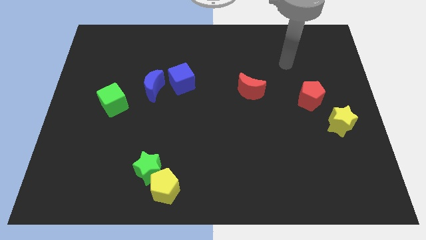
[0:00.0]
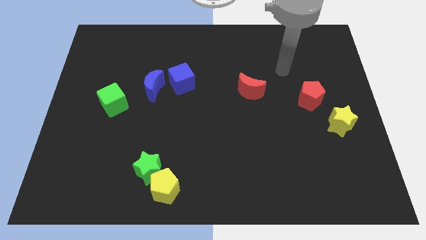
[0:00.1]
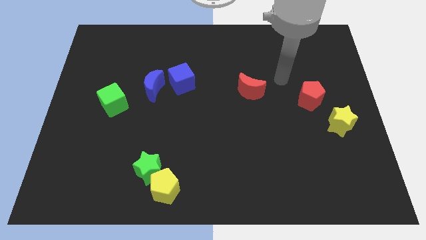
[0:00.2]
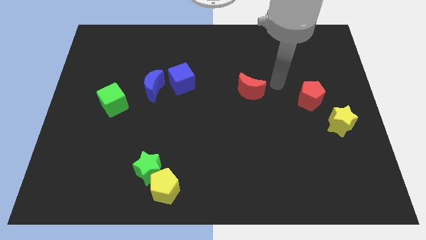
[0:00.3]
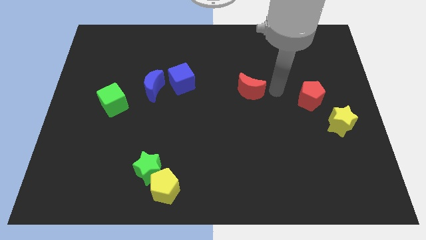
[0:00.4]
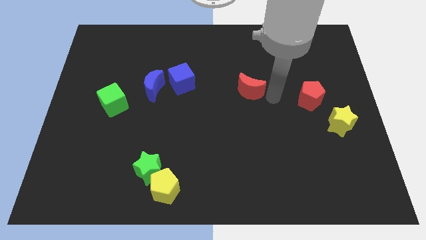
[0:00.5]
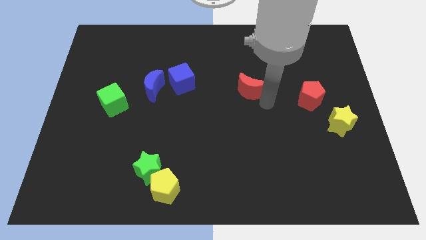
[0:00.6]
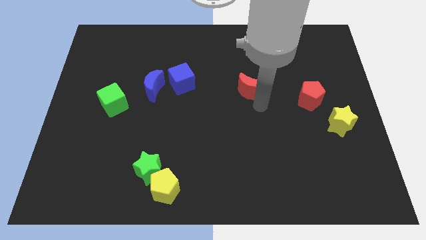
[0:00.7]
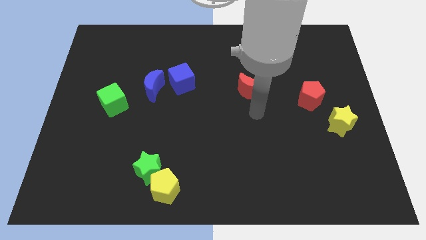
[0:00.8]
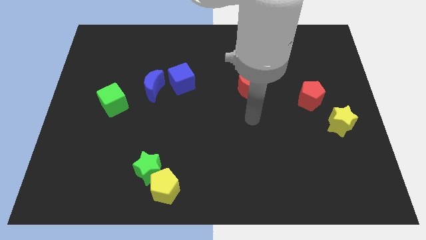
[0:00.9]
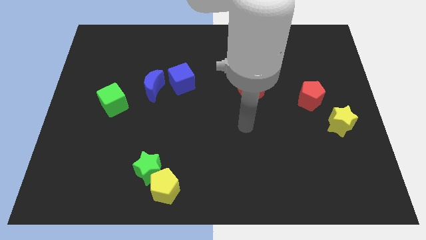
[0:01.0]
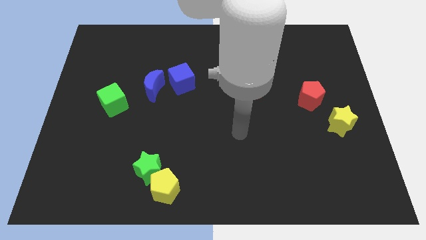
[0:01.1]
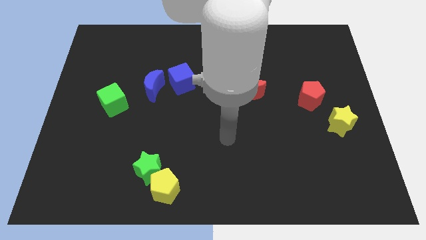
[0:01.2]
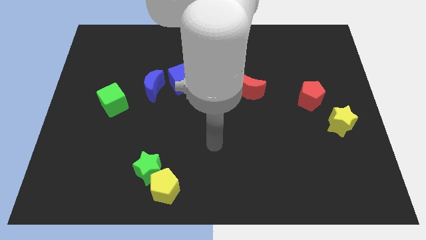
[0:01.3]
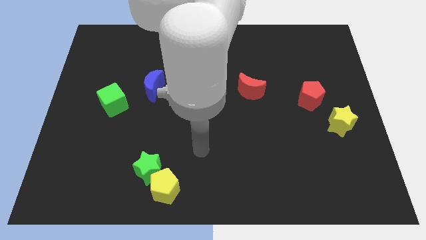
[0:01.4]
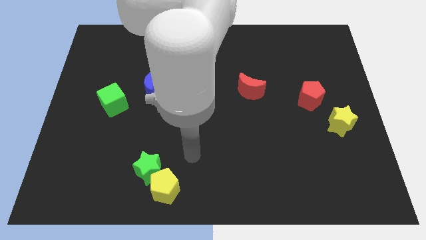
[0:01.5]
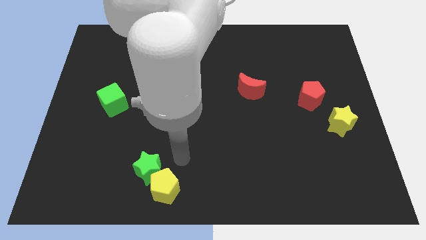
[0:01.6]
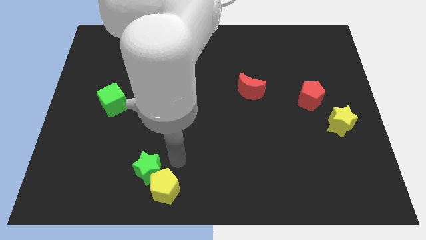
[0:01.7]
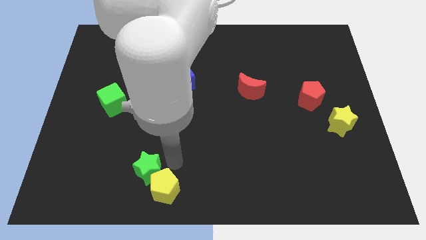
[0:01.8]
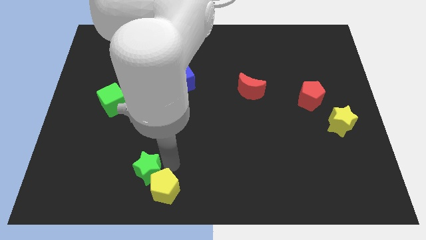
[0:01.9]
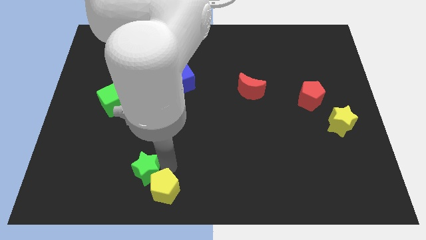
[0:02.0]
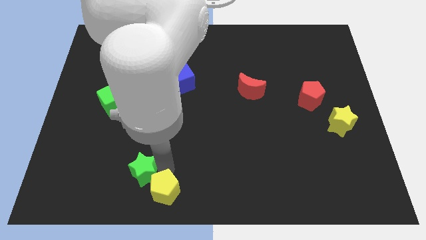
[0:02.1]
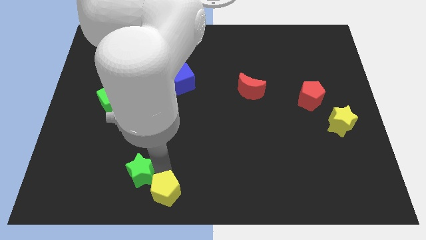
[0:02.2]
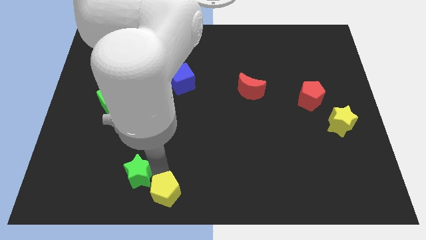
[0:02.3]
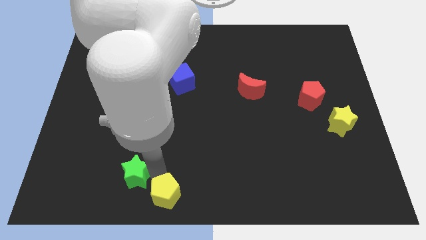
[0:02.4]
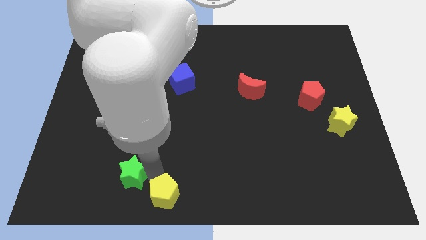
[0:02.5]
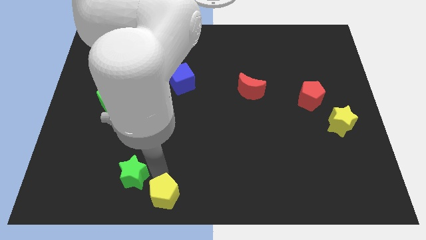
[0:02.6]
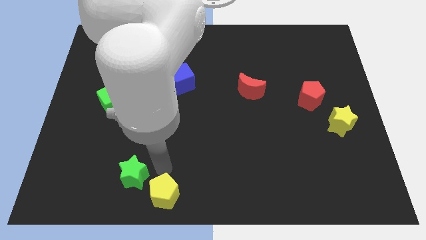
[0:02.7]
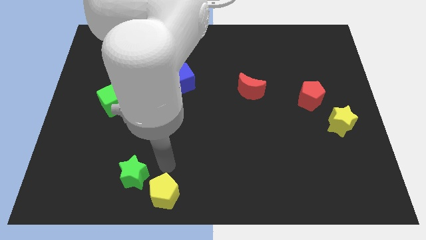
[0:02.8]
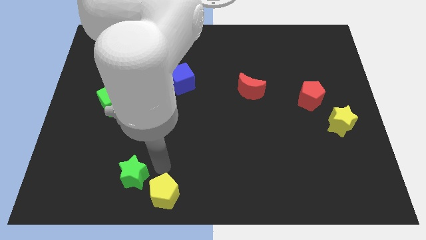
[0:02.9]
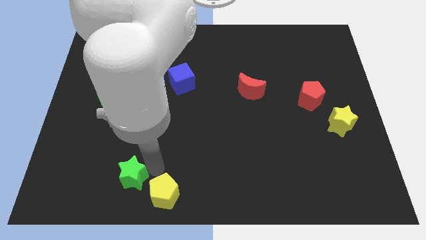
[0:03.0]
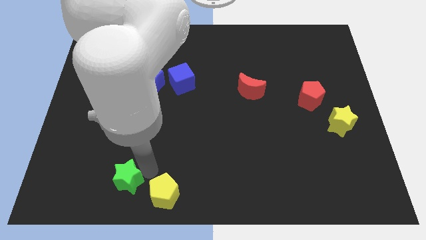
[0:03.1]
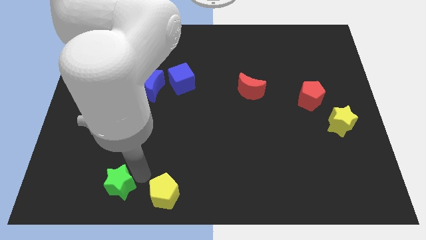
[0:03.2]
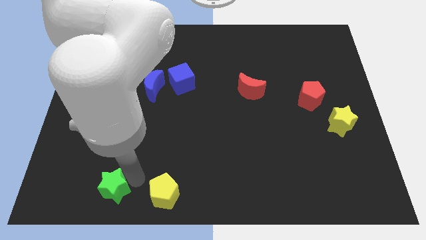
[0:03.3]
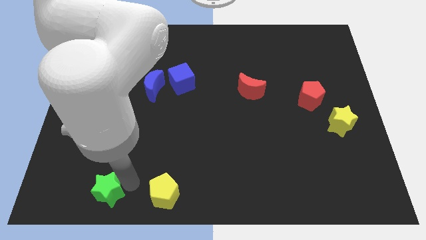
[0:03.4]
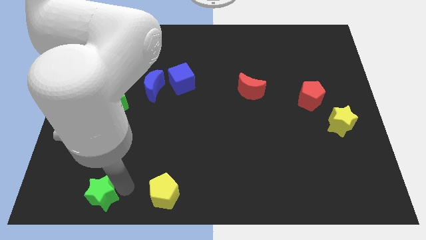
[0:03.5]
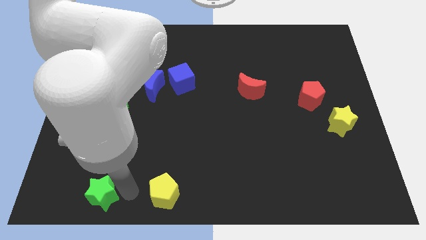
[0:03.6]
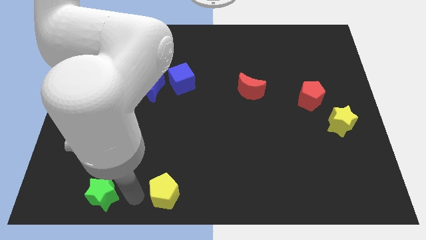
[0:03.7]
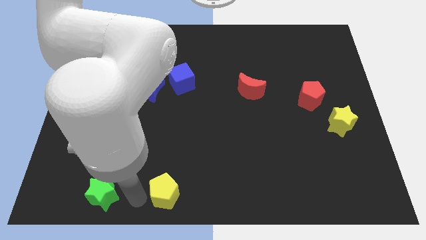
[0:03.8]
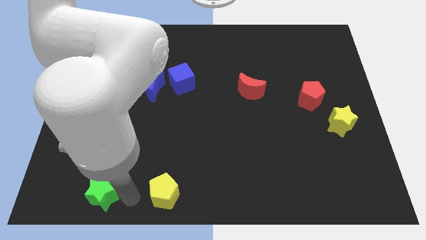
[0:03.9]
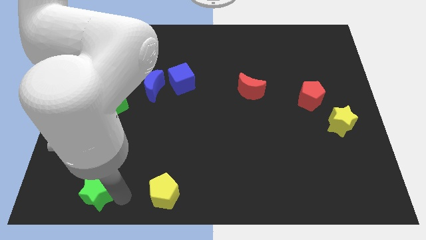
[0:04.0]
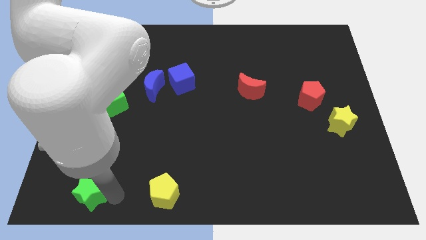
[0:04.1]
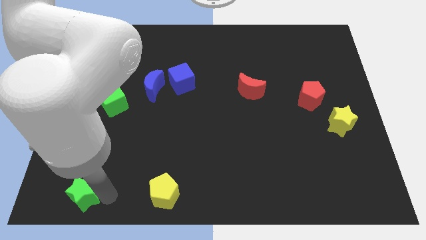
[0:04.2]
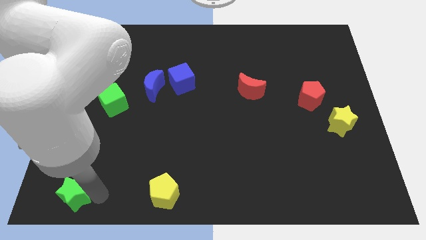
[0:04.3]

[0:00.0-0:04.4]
put the green star to the bottom left corner

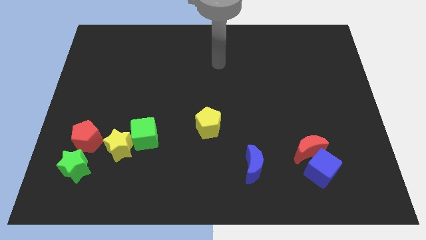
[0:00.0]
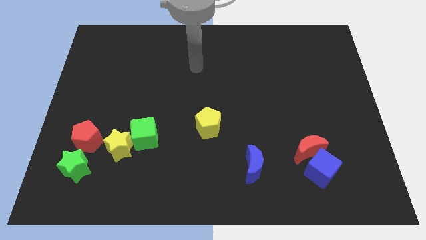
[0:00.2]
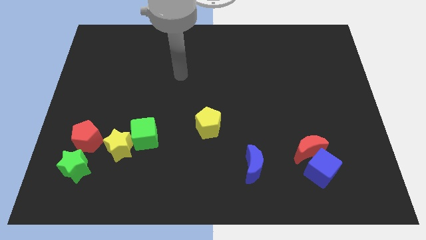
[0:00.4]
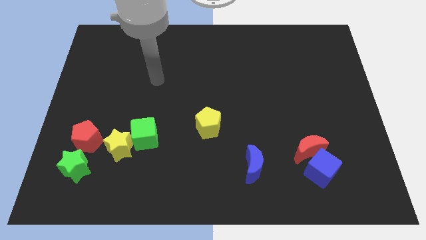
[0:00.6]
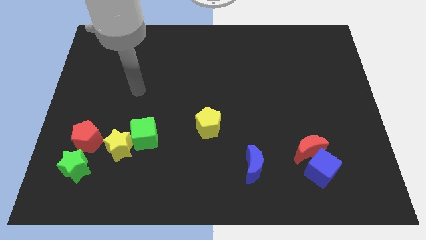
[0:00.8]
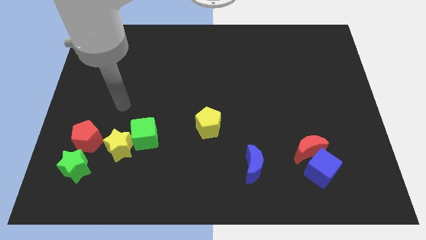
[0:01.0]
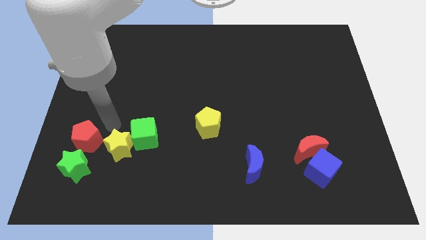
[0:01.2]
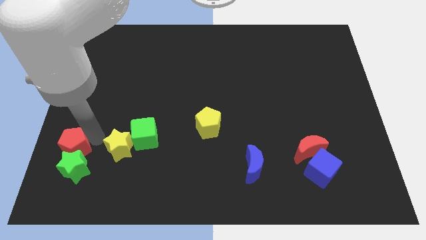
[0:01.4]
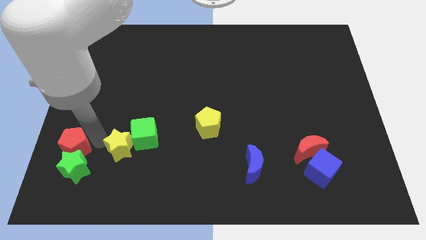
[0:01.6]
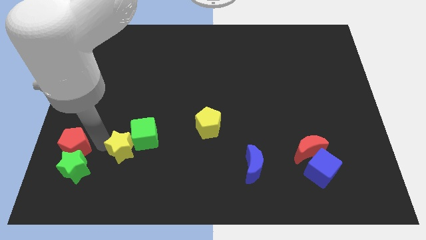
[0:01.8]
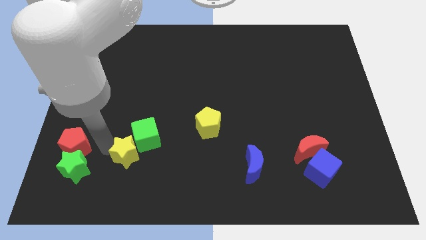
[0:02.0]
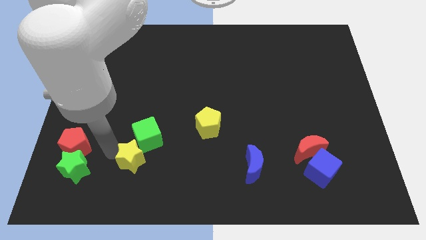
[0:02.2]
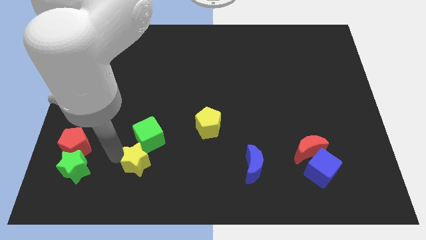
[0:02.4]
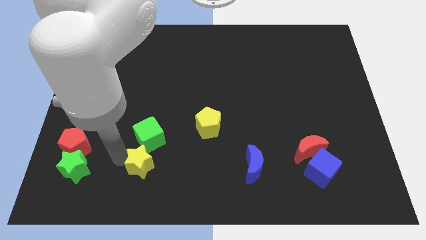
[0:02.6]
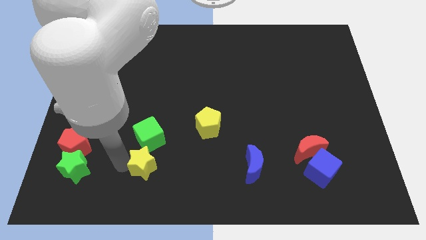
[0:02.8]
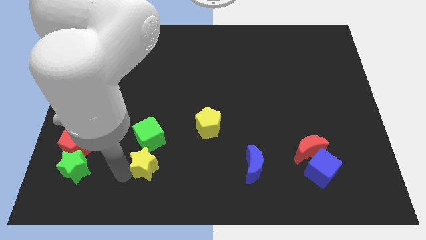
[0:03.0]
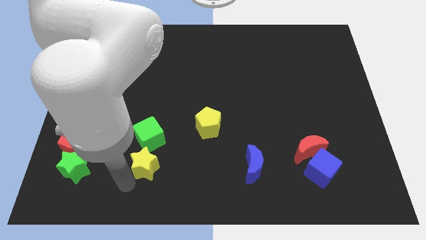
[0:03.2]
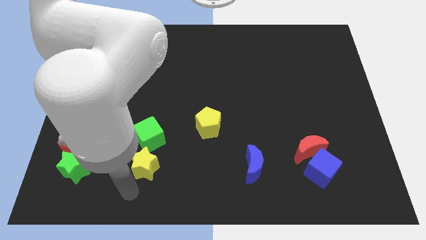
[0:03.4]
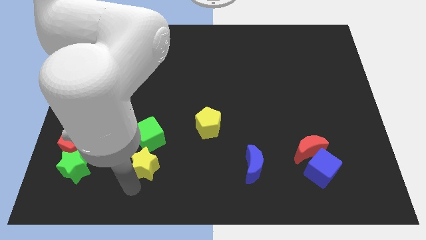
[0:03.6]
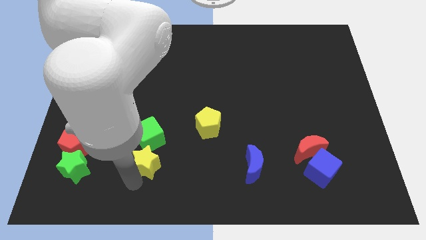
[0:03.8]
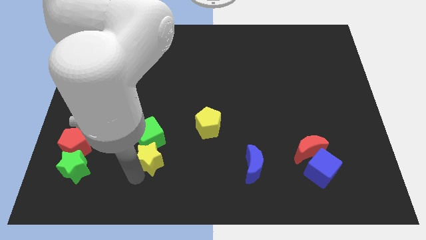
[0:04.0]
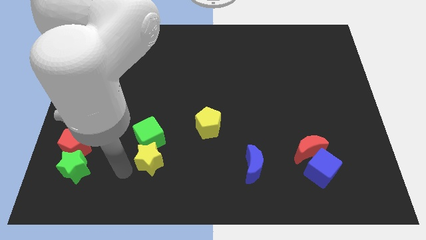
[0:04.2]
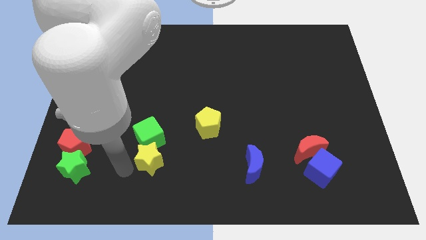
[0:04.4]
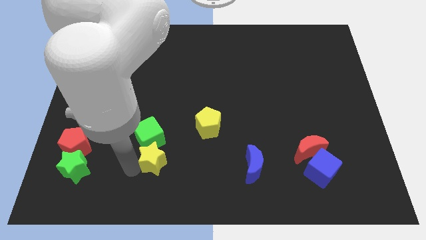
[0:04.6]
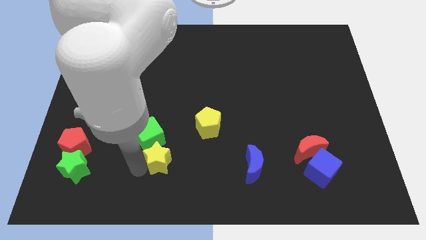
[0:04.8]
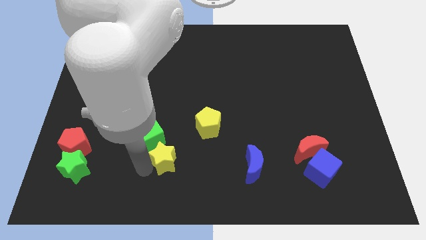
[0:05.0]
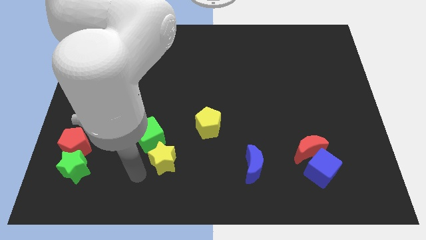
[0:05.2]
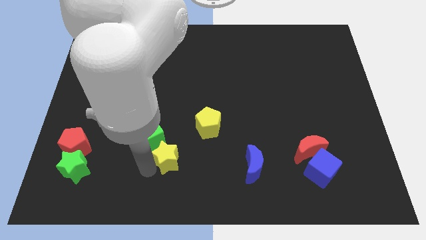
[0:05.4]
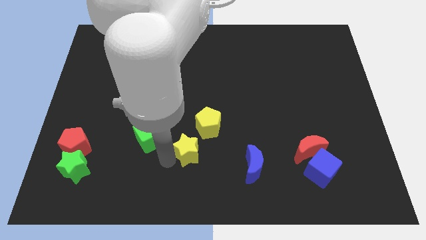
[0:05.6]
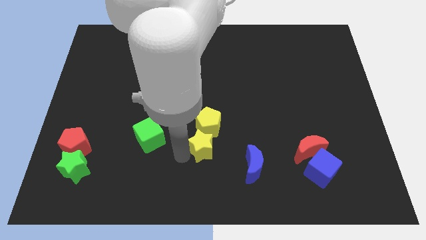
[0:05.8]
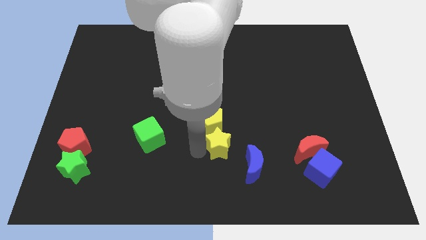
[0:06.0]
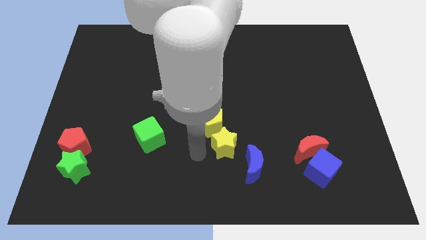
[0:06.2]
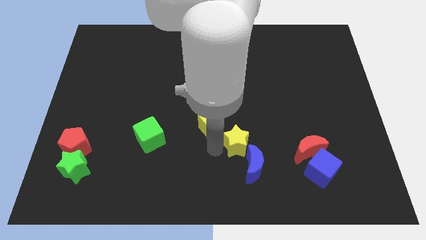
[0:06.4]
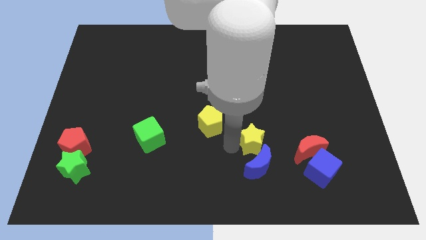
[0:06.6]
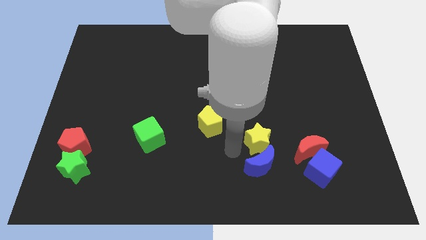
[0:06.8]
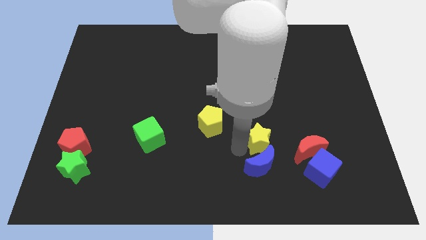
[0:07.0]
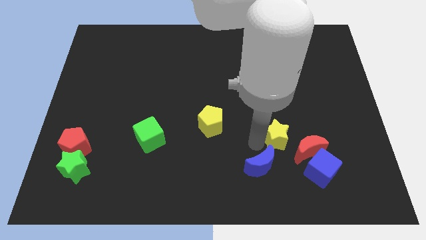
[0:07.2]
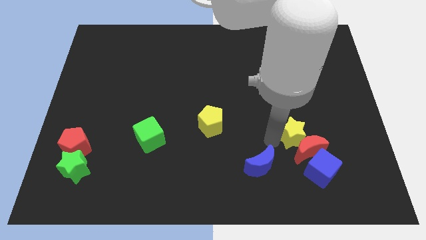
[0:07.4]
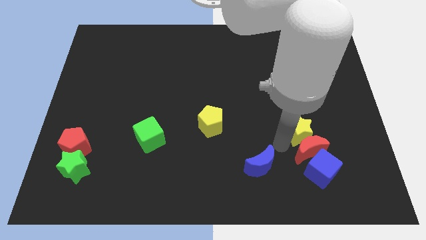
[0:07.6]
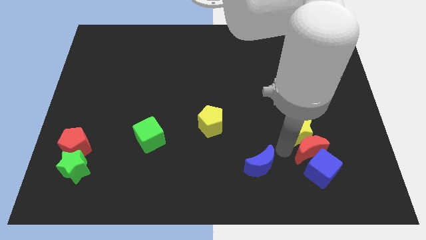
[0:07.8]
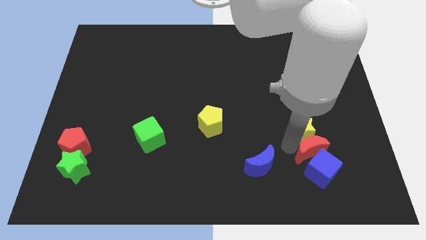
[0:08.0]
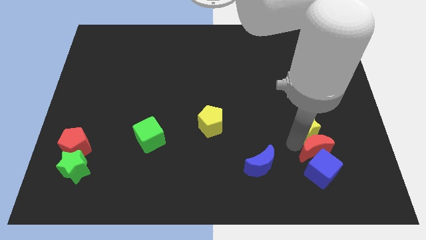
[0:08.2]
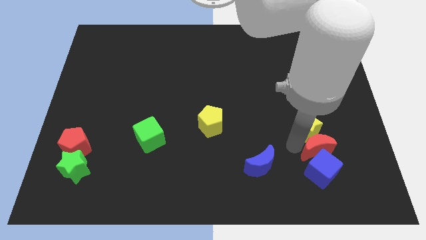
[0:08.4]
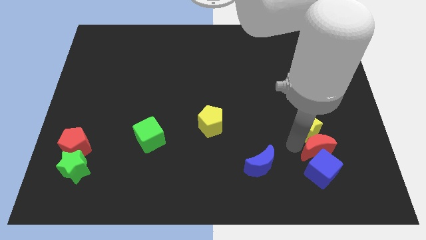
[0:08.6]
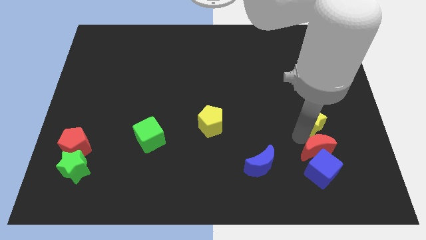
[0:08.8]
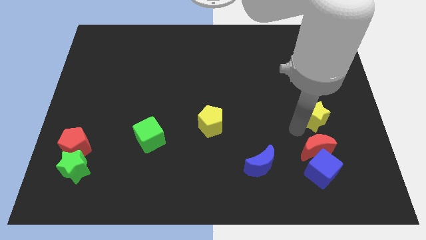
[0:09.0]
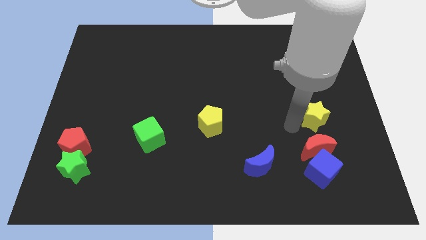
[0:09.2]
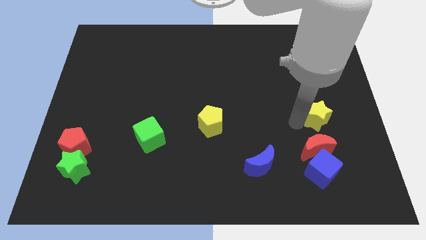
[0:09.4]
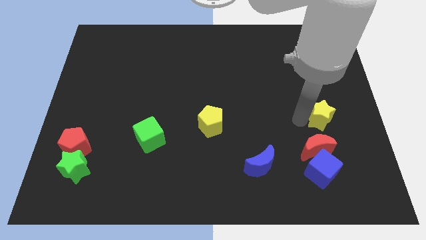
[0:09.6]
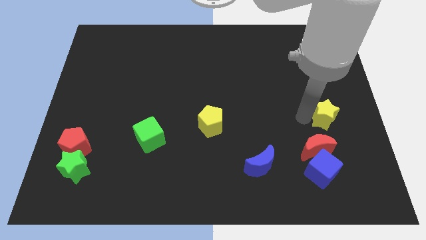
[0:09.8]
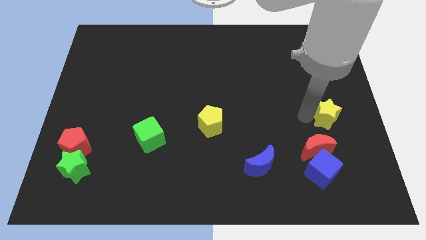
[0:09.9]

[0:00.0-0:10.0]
slide the yellow star to the right side of the board
